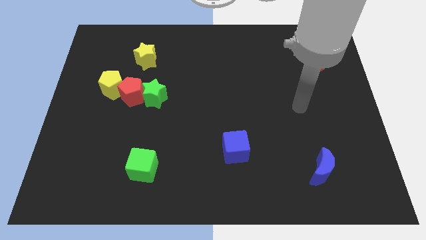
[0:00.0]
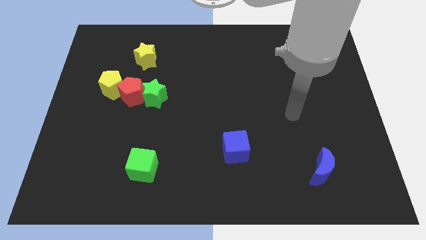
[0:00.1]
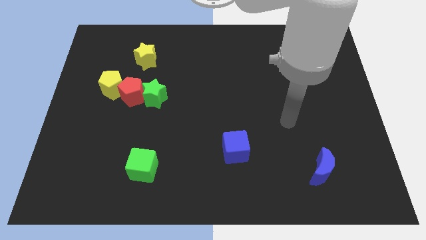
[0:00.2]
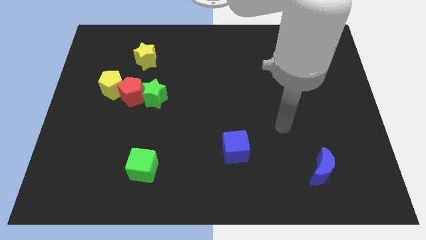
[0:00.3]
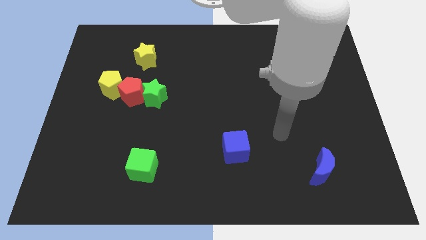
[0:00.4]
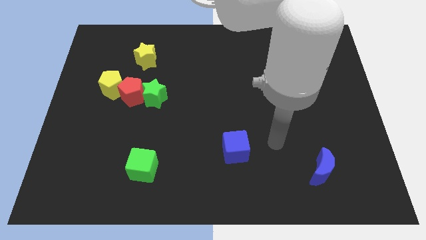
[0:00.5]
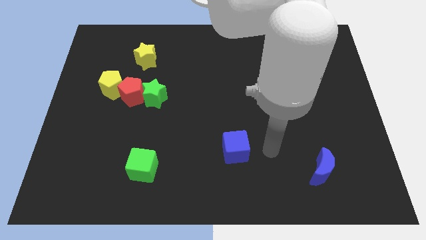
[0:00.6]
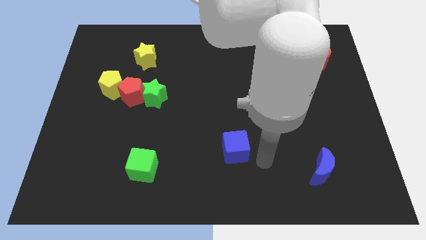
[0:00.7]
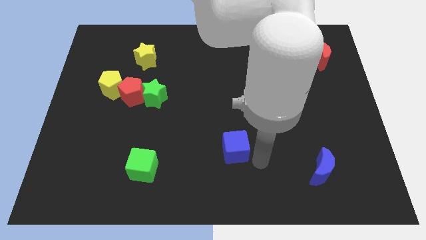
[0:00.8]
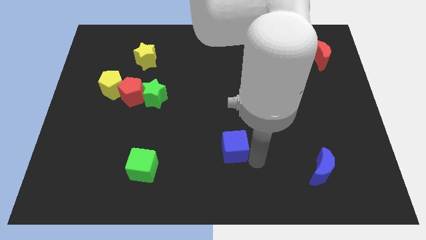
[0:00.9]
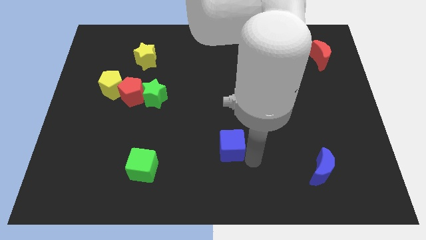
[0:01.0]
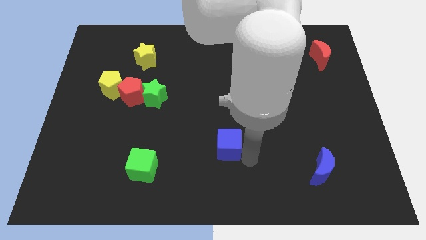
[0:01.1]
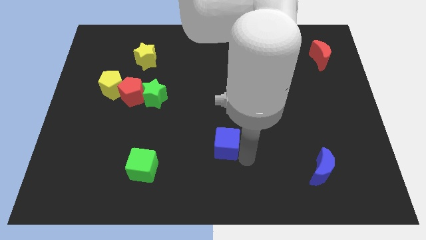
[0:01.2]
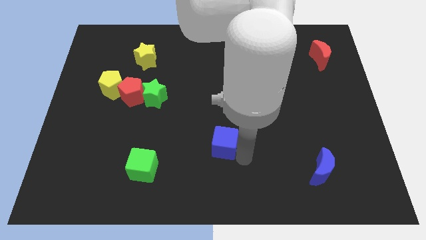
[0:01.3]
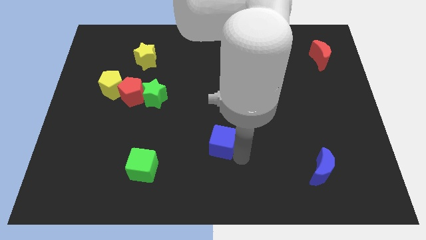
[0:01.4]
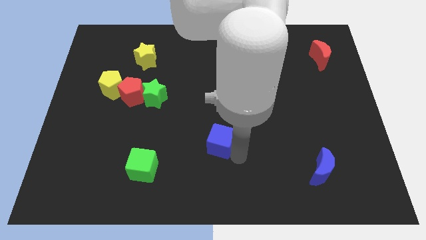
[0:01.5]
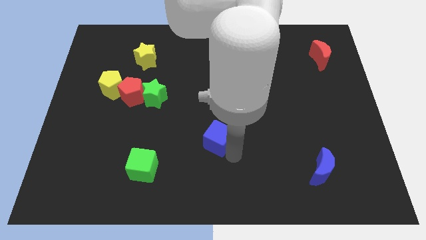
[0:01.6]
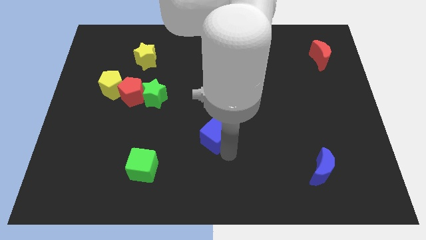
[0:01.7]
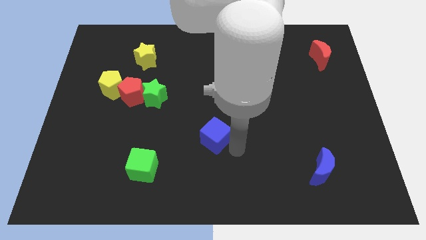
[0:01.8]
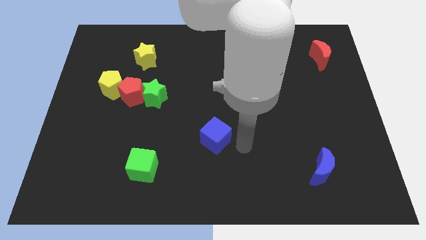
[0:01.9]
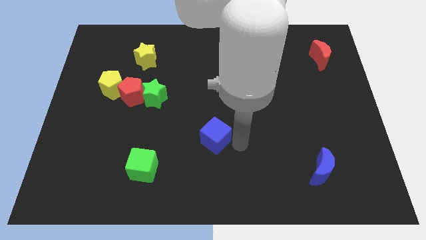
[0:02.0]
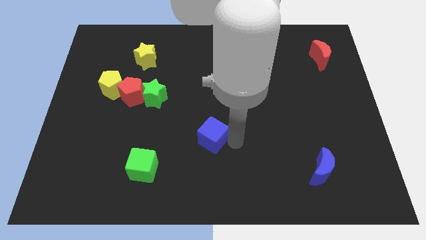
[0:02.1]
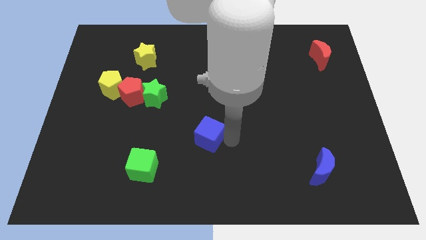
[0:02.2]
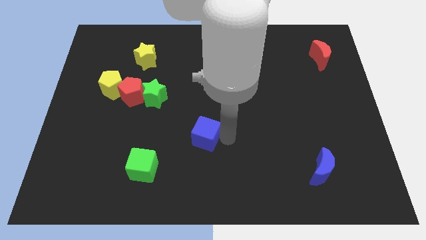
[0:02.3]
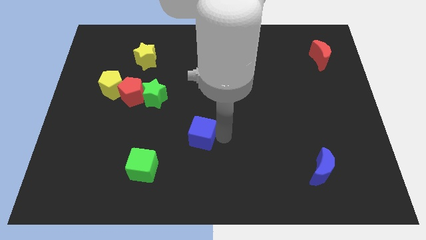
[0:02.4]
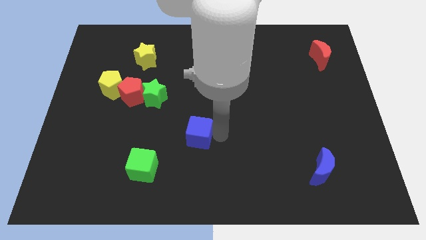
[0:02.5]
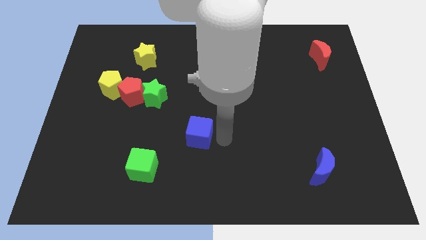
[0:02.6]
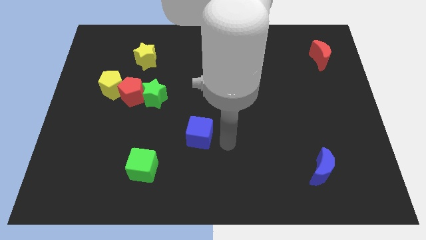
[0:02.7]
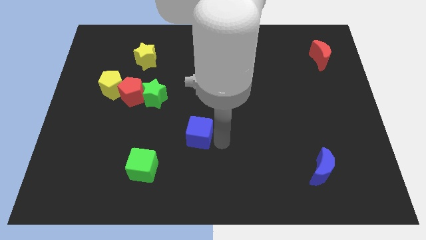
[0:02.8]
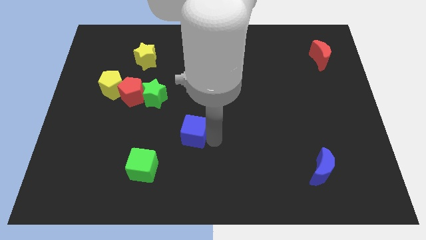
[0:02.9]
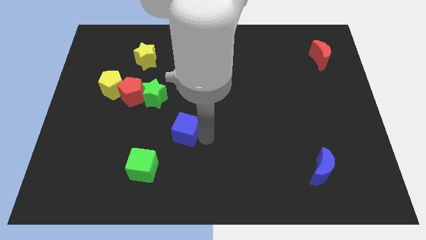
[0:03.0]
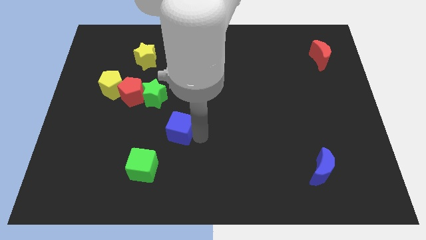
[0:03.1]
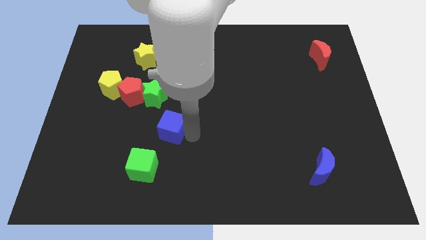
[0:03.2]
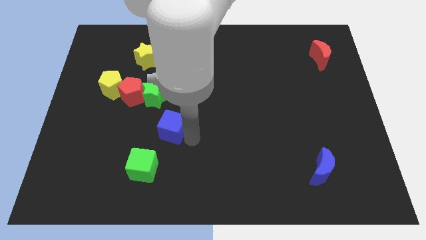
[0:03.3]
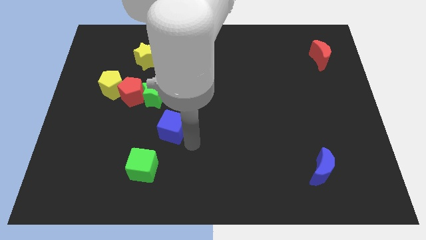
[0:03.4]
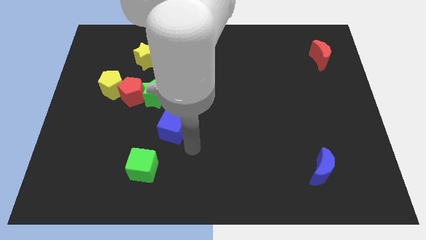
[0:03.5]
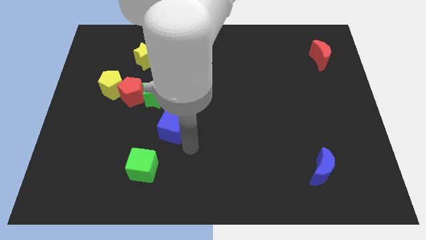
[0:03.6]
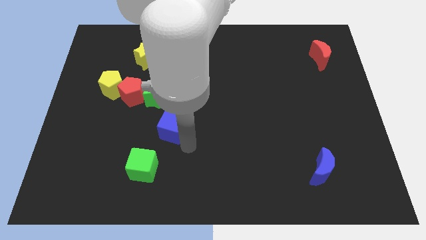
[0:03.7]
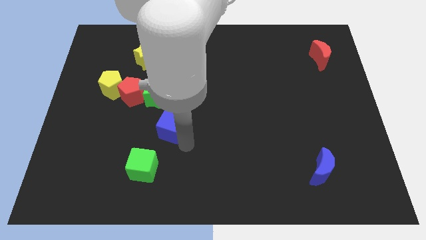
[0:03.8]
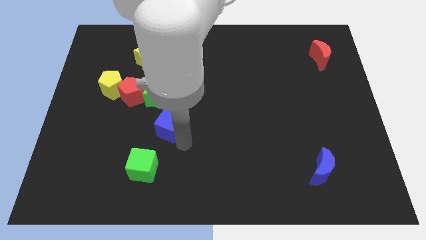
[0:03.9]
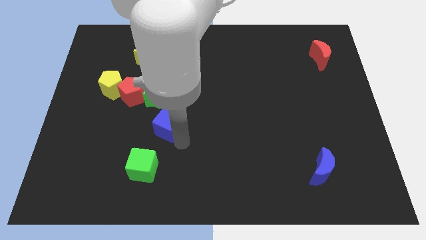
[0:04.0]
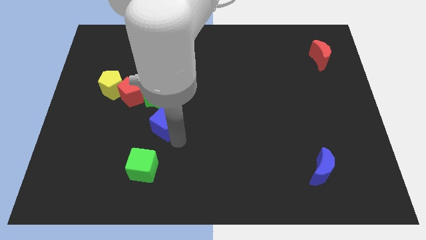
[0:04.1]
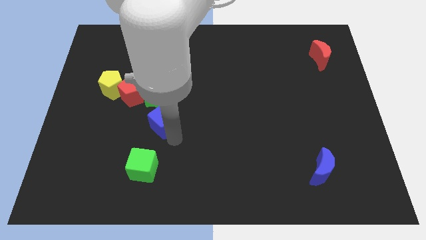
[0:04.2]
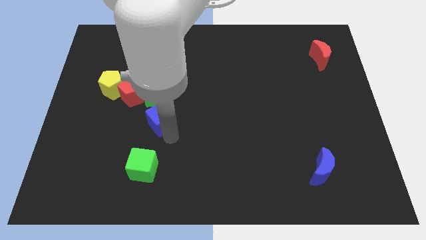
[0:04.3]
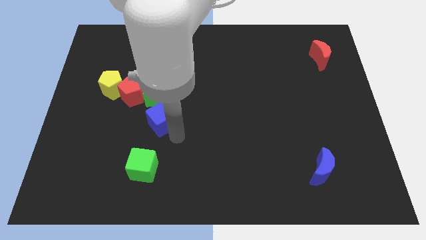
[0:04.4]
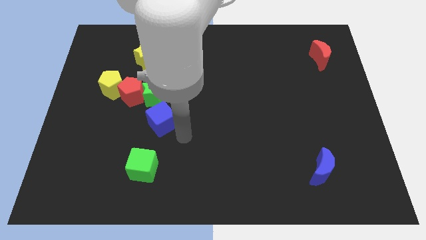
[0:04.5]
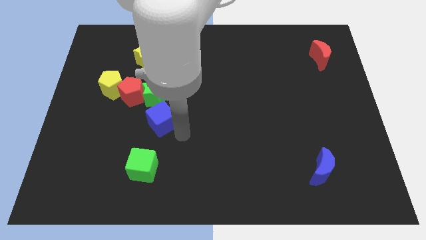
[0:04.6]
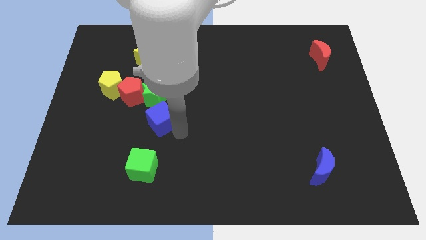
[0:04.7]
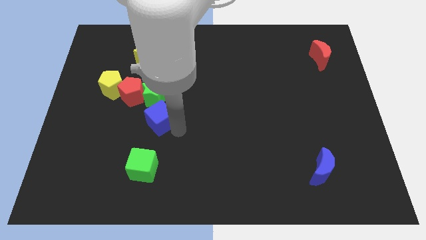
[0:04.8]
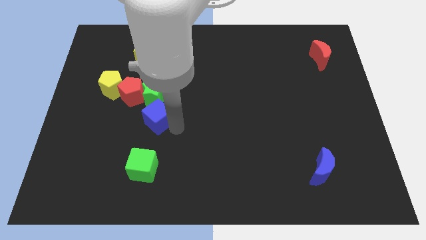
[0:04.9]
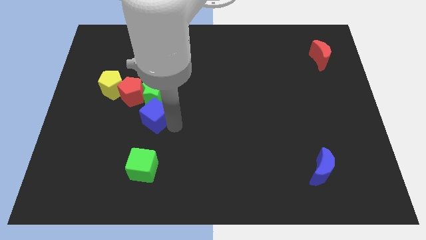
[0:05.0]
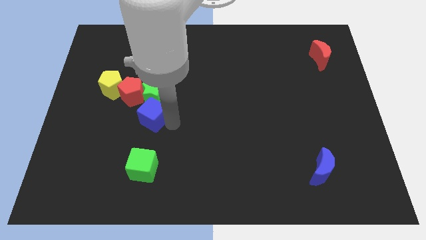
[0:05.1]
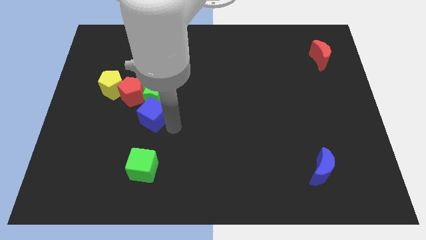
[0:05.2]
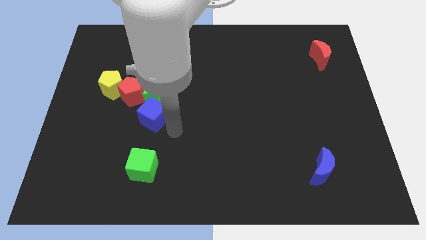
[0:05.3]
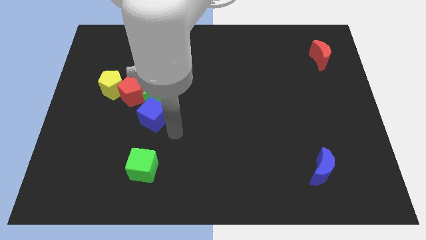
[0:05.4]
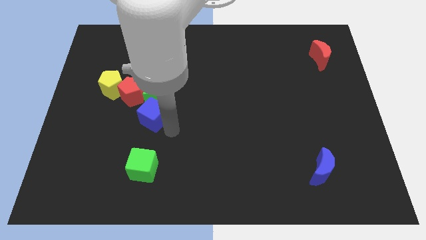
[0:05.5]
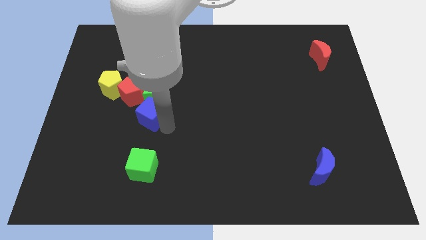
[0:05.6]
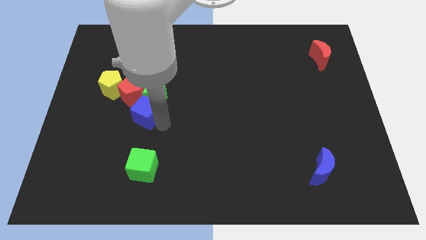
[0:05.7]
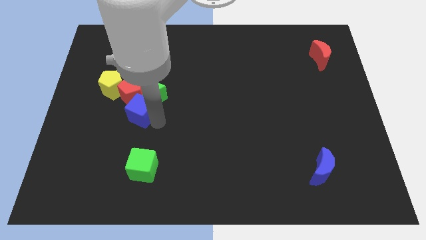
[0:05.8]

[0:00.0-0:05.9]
move the blue cube close to the red pentagon

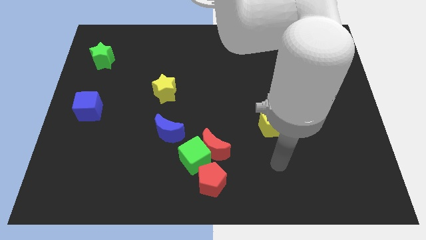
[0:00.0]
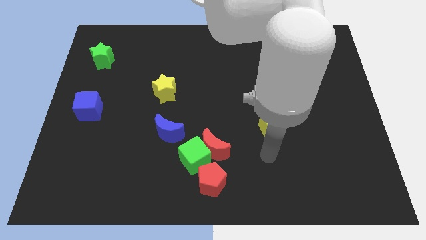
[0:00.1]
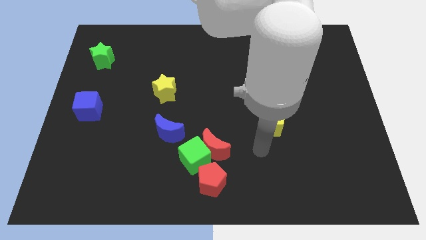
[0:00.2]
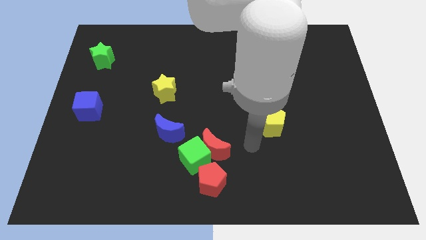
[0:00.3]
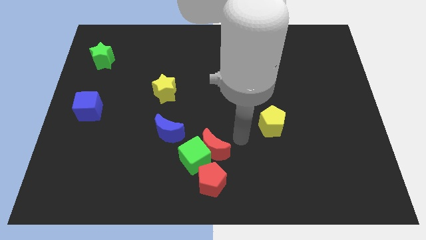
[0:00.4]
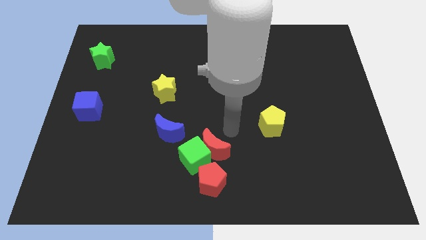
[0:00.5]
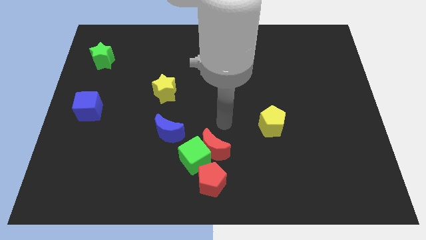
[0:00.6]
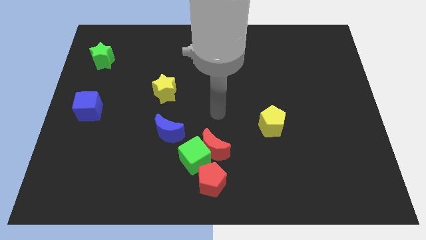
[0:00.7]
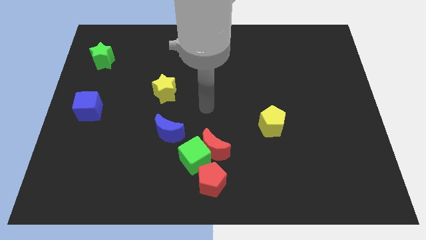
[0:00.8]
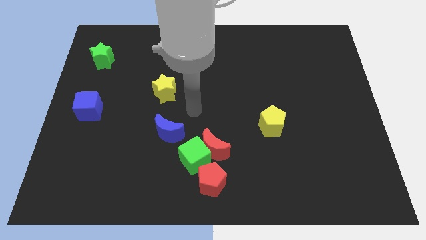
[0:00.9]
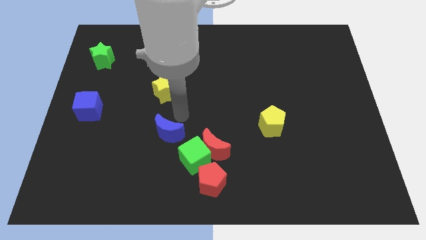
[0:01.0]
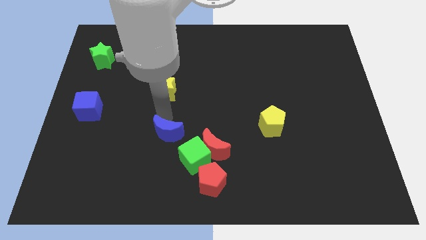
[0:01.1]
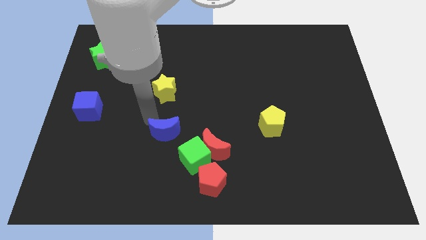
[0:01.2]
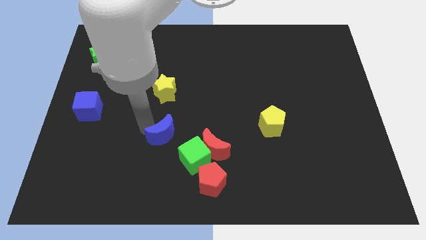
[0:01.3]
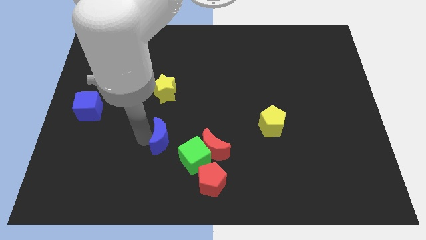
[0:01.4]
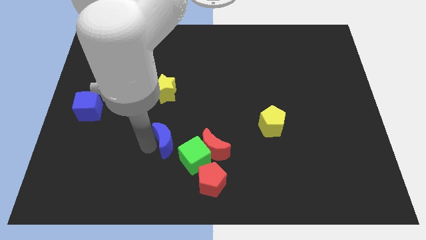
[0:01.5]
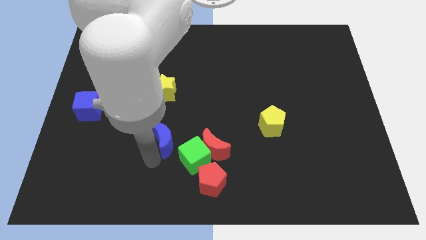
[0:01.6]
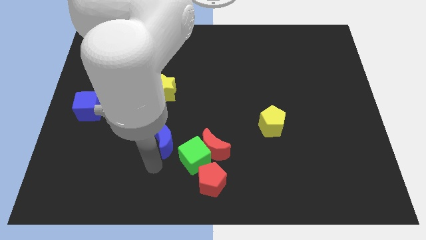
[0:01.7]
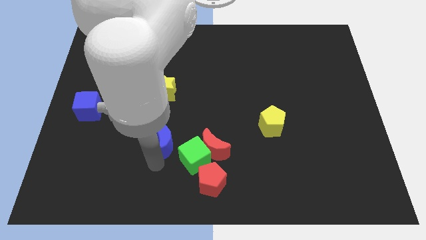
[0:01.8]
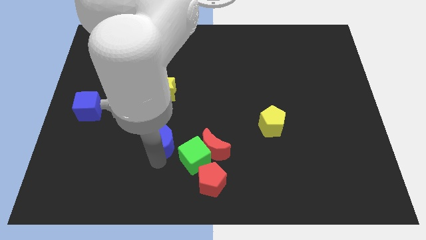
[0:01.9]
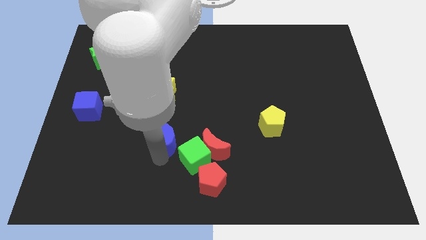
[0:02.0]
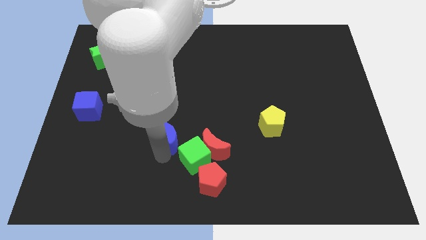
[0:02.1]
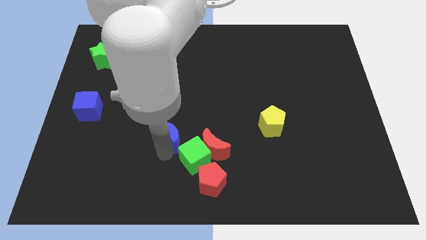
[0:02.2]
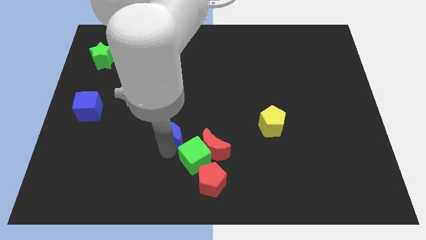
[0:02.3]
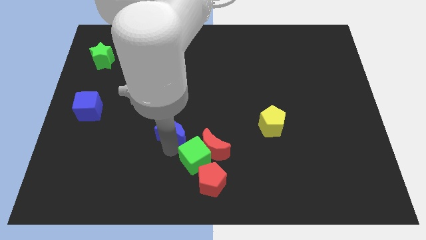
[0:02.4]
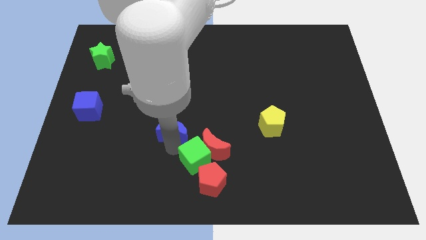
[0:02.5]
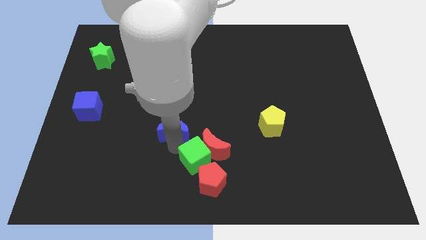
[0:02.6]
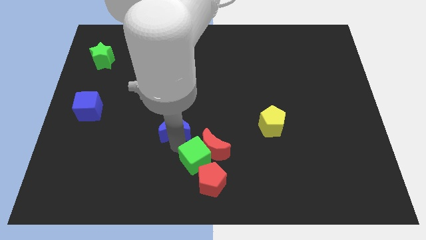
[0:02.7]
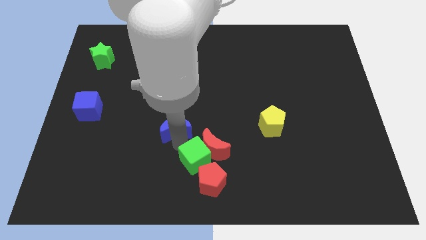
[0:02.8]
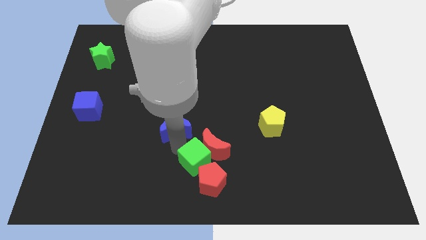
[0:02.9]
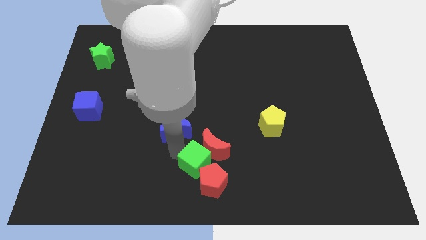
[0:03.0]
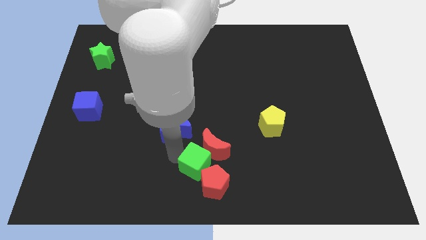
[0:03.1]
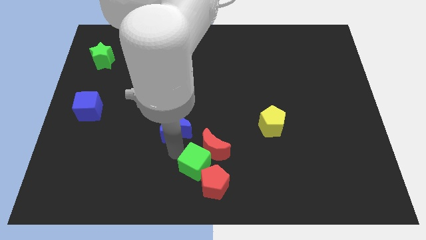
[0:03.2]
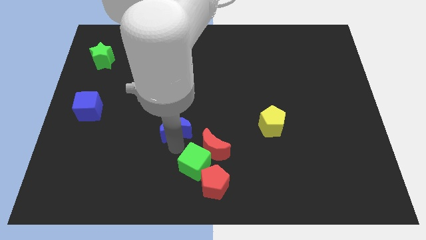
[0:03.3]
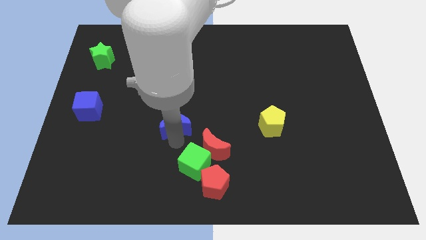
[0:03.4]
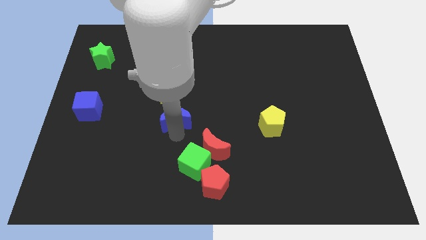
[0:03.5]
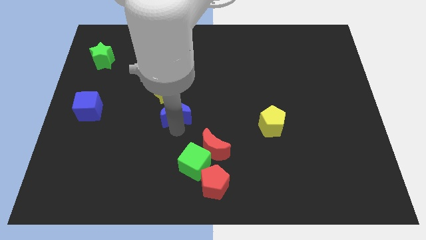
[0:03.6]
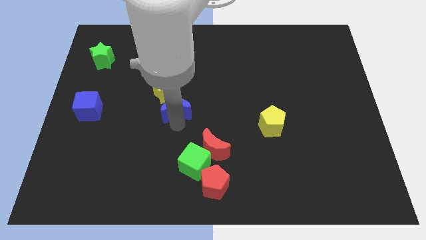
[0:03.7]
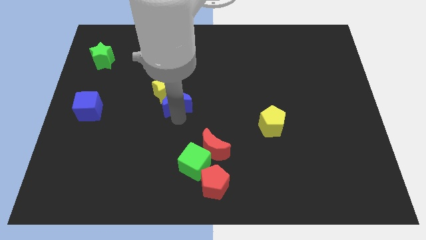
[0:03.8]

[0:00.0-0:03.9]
push the blue moon towards the yellow star
